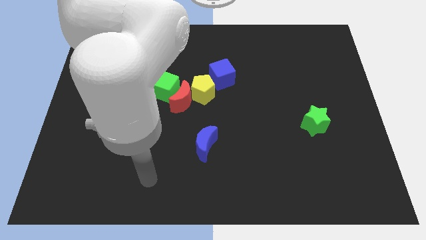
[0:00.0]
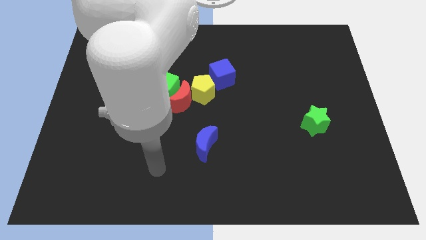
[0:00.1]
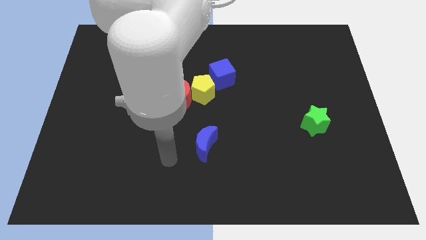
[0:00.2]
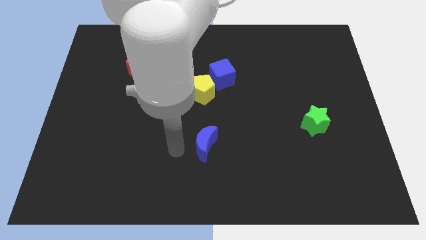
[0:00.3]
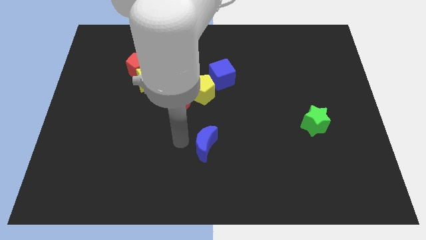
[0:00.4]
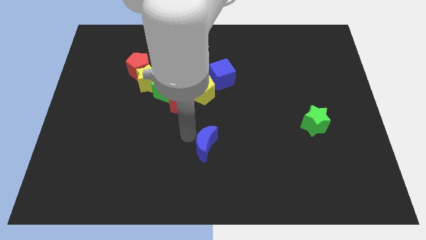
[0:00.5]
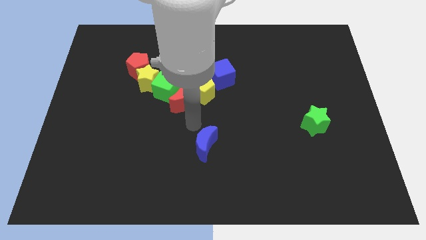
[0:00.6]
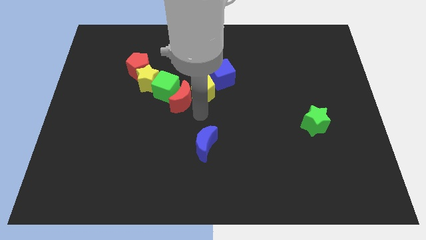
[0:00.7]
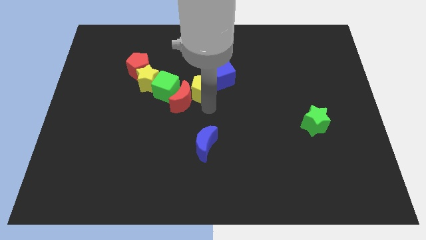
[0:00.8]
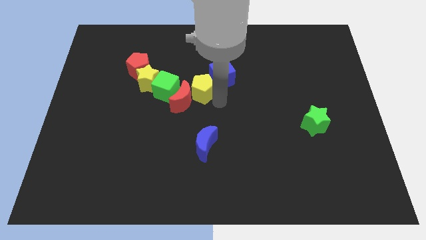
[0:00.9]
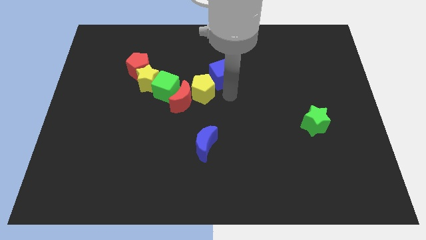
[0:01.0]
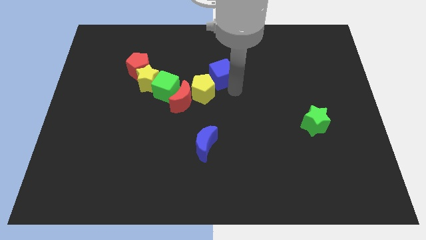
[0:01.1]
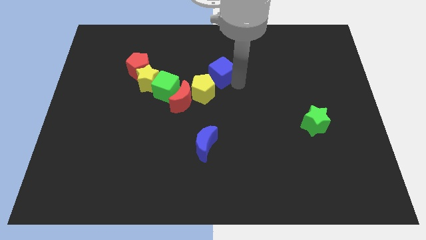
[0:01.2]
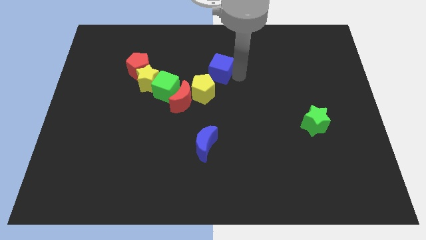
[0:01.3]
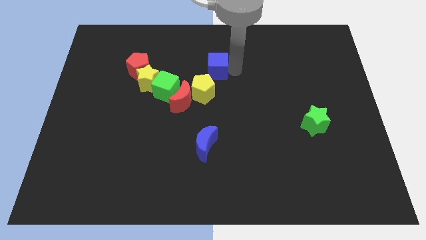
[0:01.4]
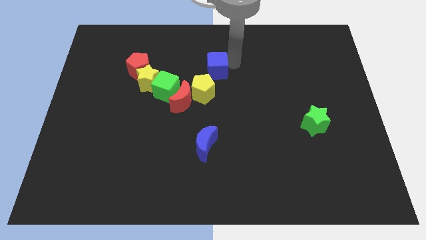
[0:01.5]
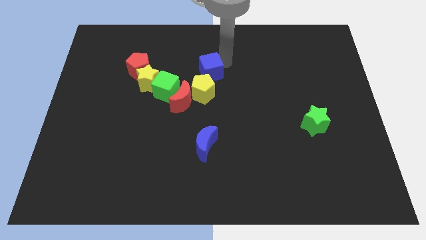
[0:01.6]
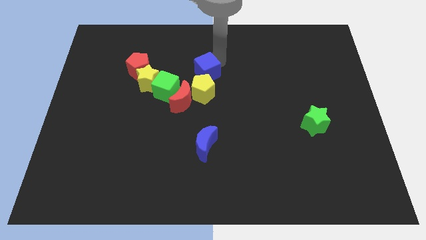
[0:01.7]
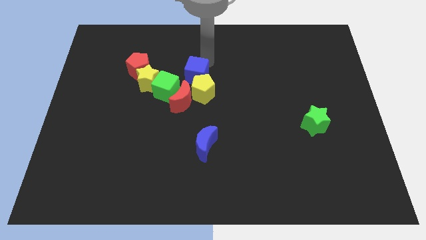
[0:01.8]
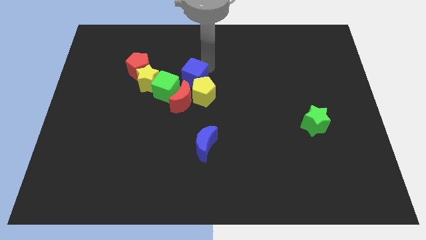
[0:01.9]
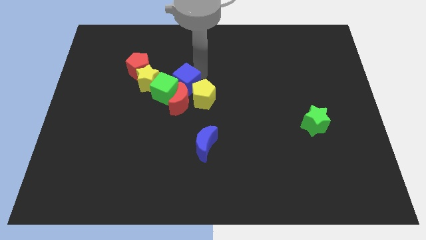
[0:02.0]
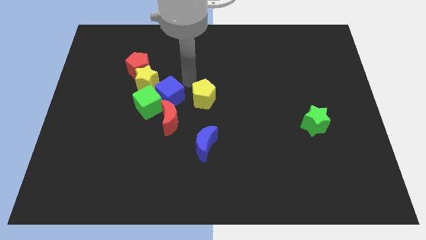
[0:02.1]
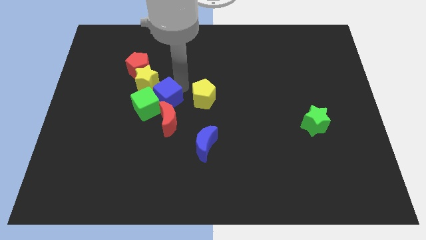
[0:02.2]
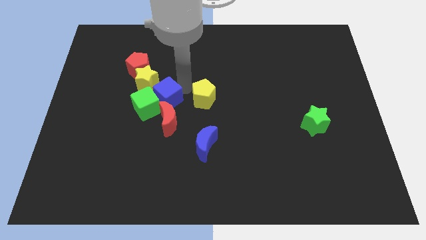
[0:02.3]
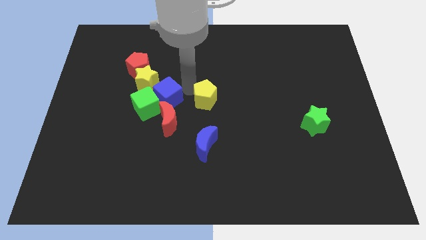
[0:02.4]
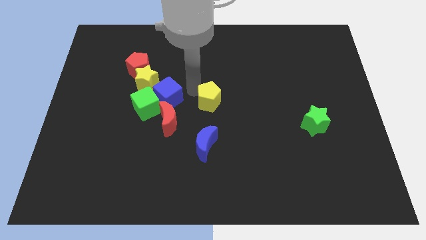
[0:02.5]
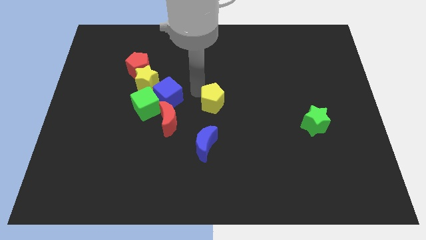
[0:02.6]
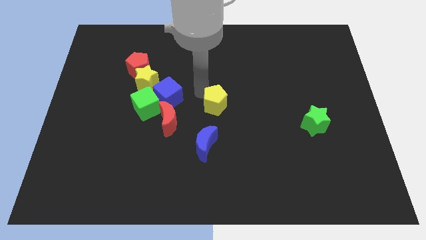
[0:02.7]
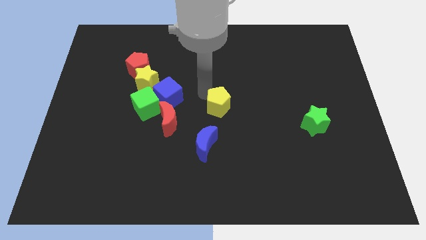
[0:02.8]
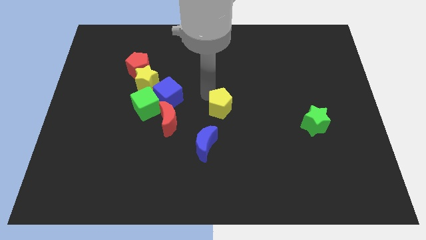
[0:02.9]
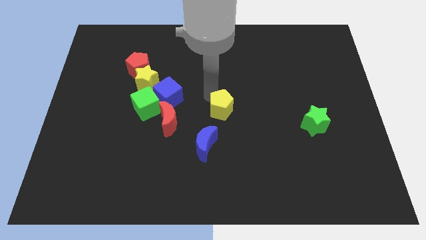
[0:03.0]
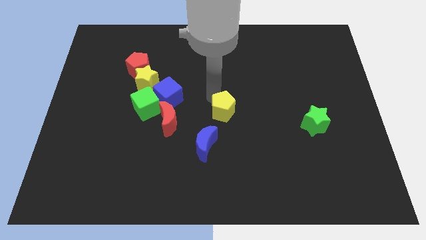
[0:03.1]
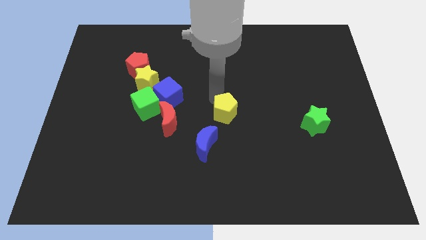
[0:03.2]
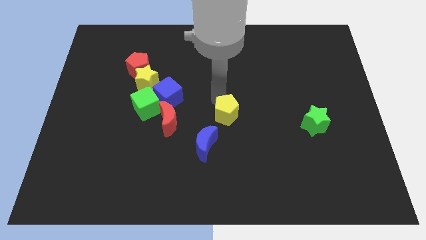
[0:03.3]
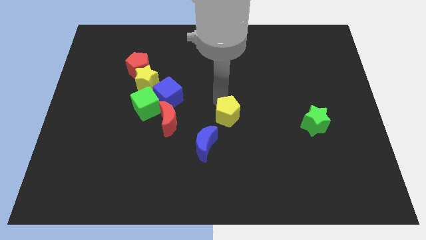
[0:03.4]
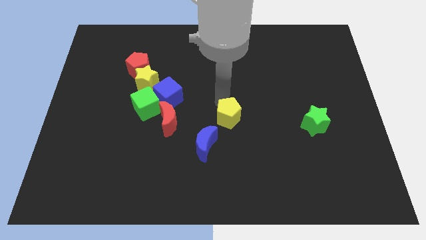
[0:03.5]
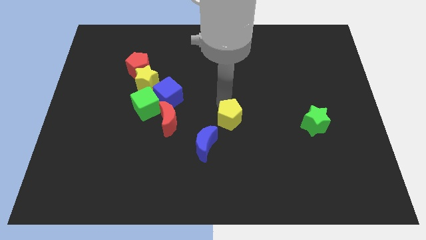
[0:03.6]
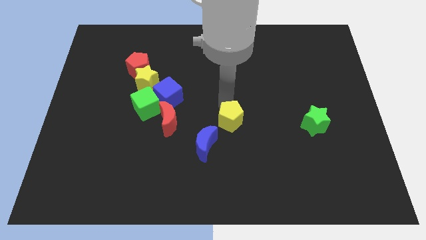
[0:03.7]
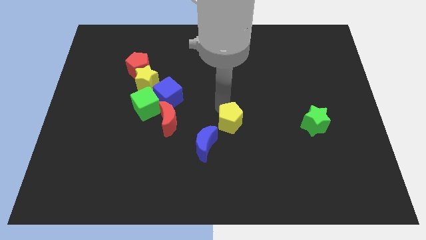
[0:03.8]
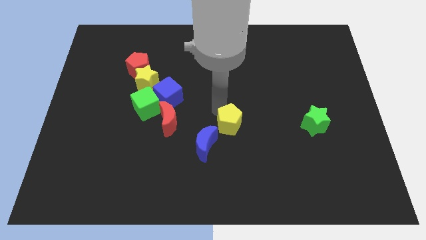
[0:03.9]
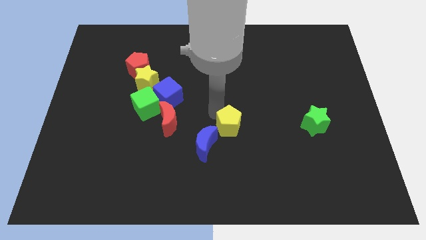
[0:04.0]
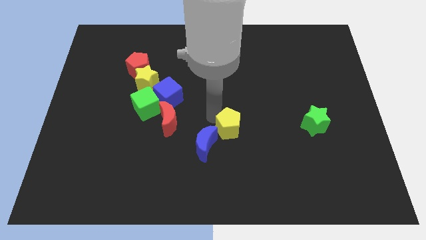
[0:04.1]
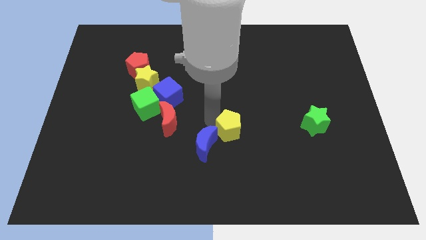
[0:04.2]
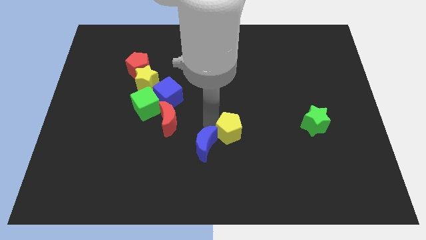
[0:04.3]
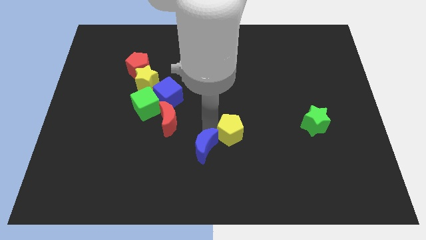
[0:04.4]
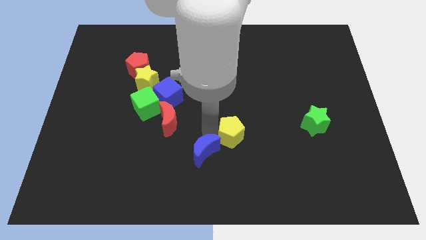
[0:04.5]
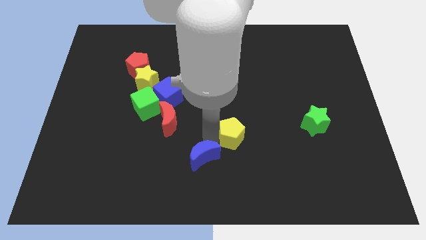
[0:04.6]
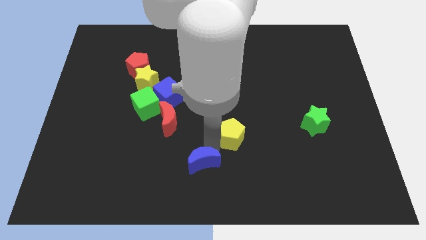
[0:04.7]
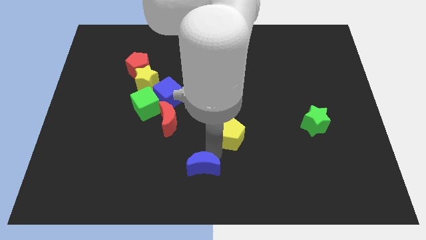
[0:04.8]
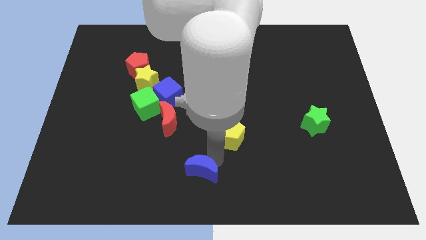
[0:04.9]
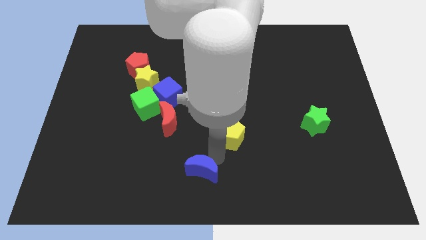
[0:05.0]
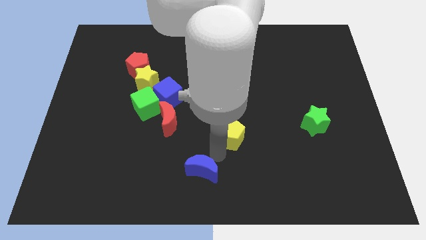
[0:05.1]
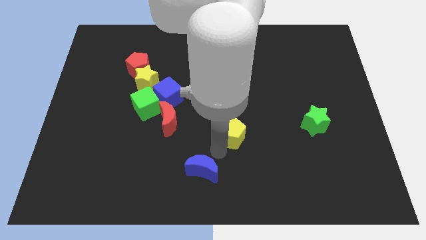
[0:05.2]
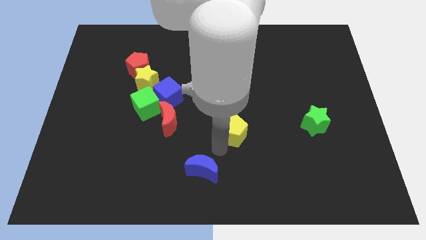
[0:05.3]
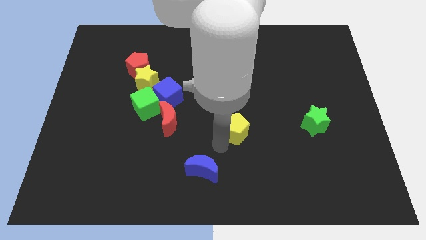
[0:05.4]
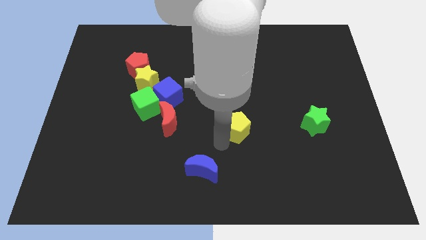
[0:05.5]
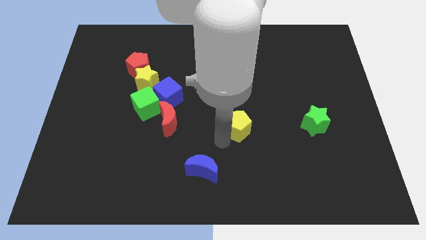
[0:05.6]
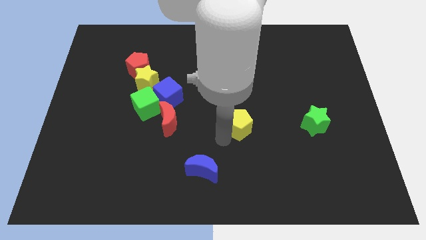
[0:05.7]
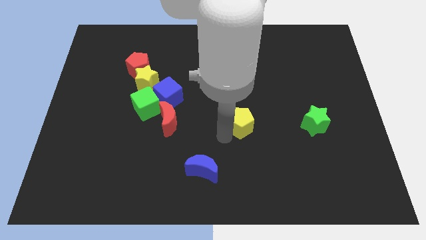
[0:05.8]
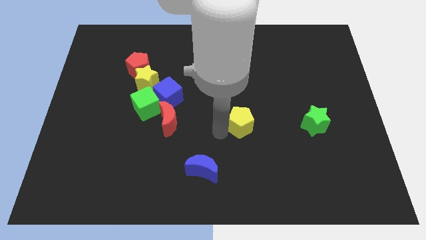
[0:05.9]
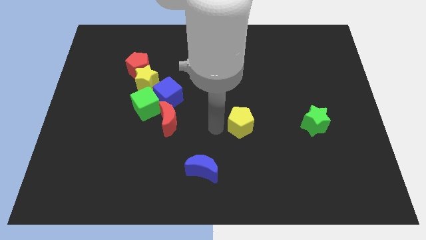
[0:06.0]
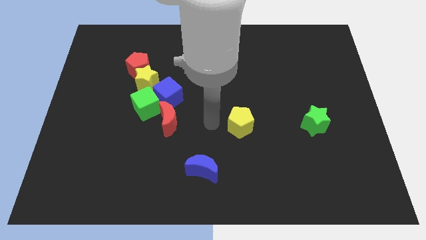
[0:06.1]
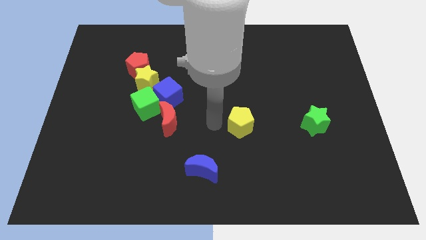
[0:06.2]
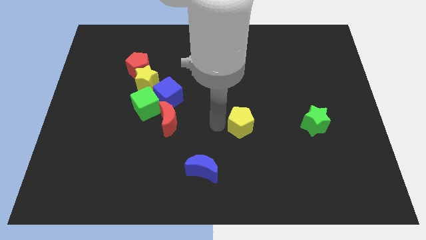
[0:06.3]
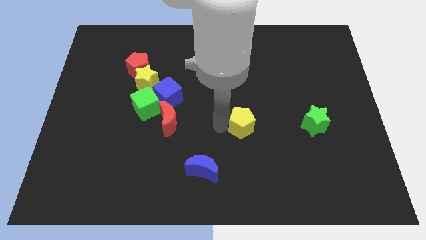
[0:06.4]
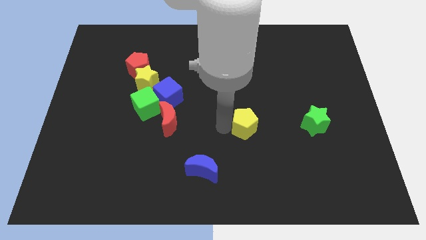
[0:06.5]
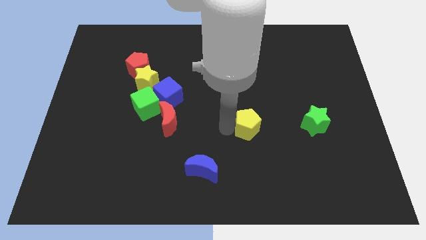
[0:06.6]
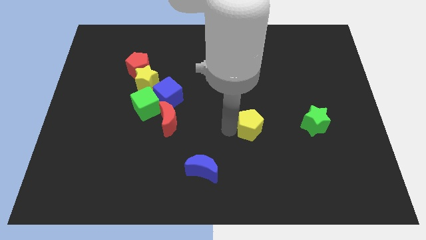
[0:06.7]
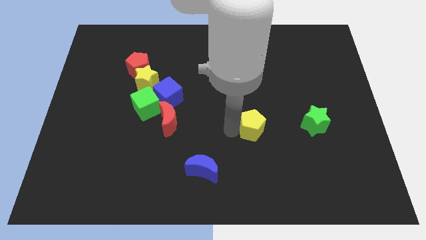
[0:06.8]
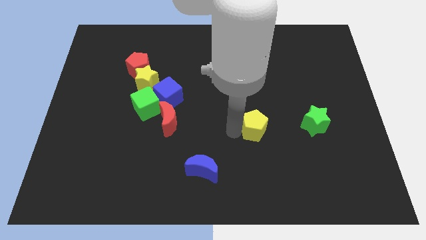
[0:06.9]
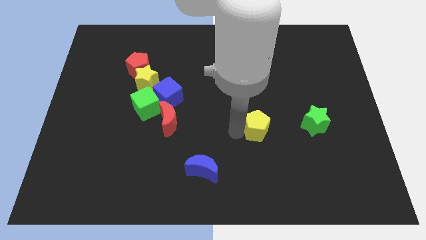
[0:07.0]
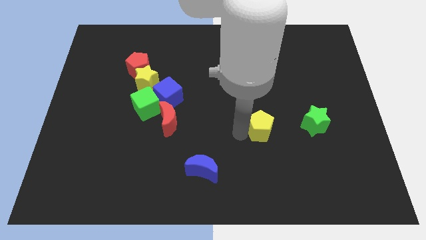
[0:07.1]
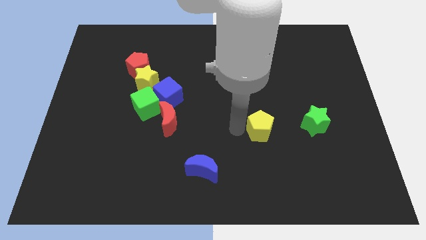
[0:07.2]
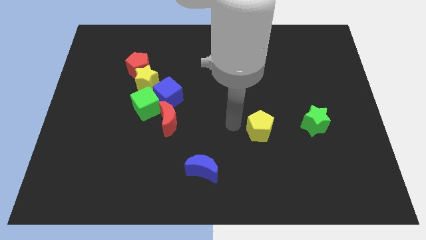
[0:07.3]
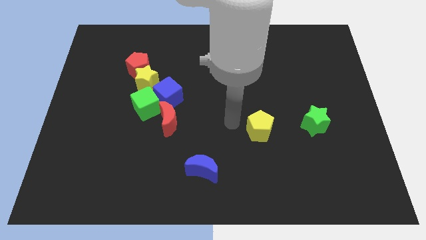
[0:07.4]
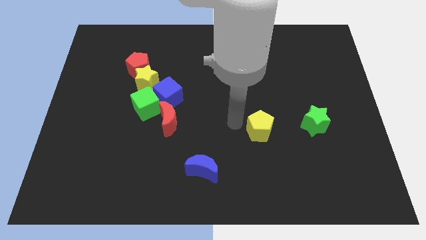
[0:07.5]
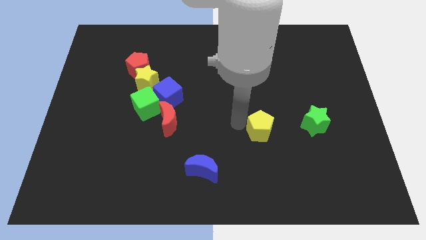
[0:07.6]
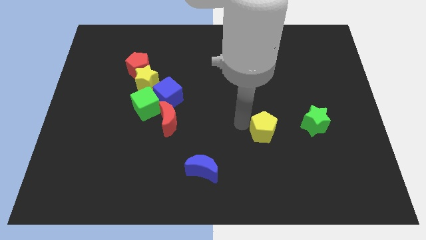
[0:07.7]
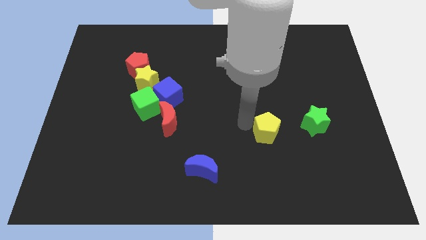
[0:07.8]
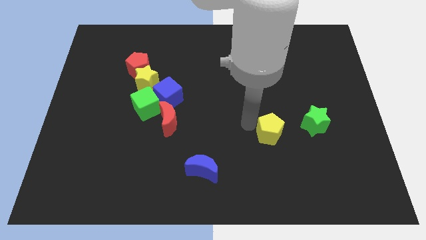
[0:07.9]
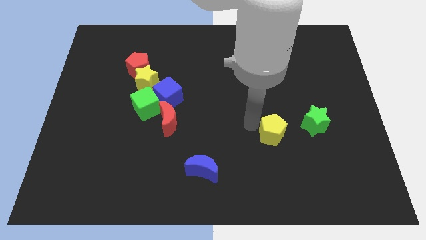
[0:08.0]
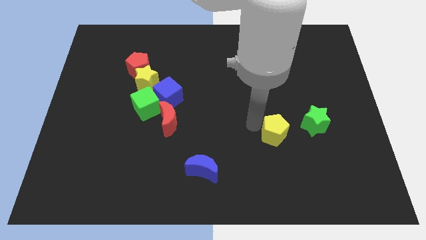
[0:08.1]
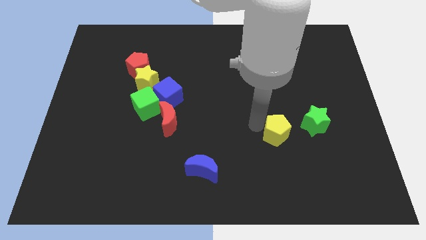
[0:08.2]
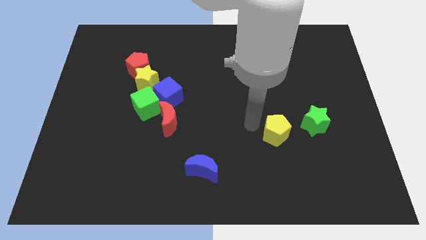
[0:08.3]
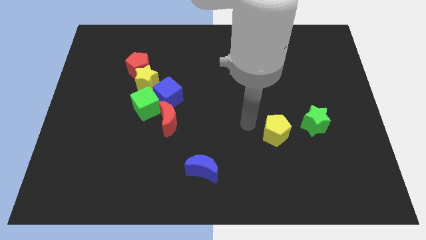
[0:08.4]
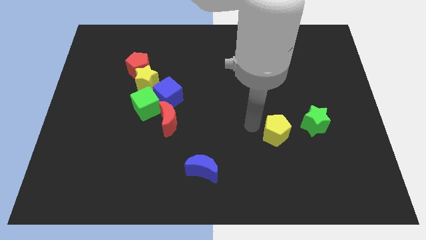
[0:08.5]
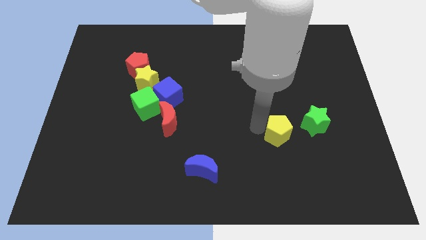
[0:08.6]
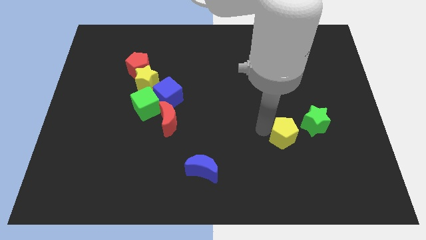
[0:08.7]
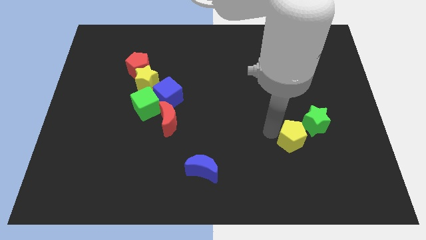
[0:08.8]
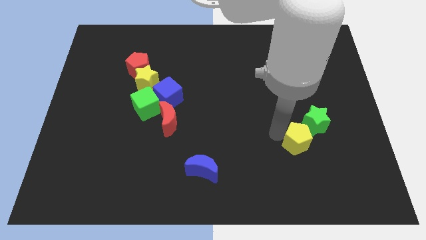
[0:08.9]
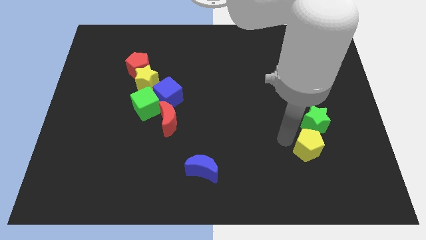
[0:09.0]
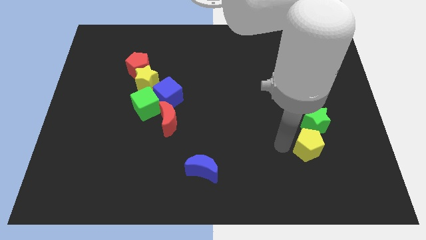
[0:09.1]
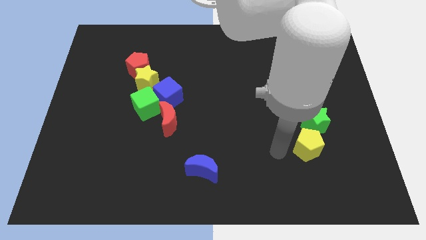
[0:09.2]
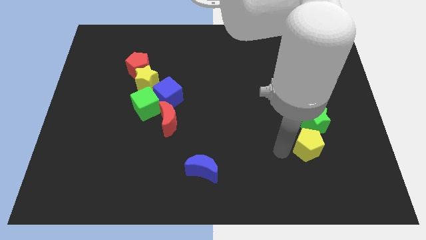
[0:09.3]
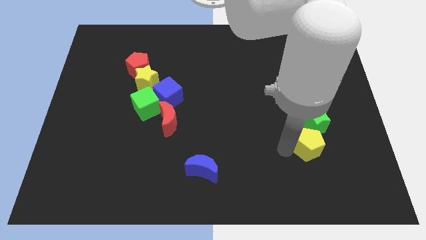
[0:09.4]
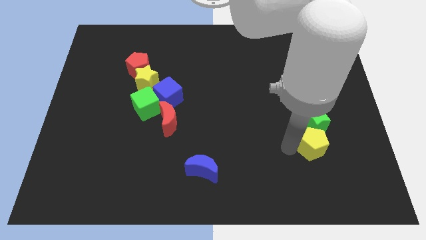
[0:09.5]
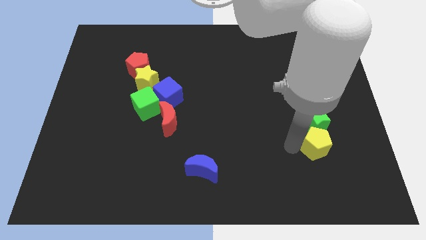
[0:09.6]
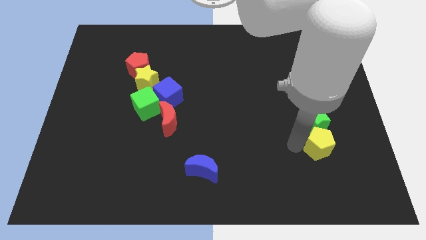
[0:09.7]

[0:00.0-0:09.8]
put the yellow pentagon diagonally down and to the right of the green star
